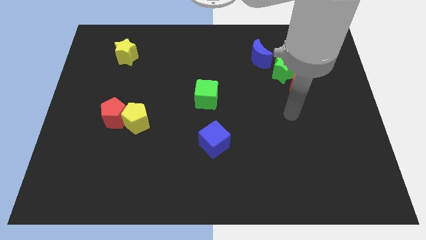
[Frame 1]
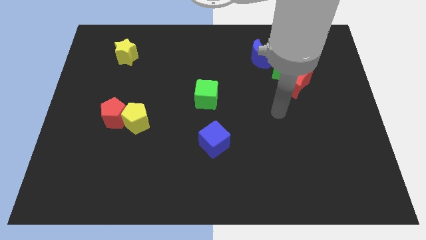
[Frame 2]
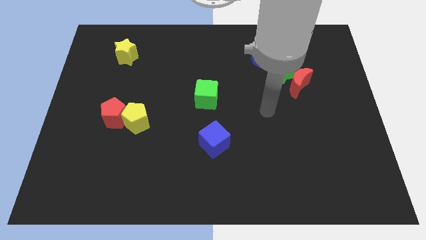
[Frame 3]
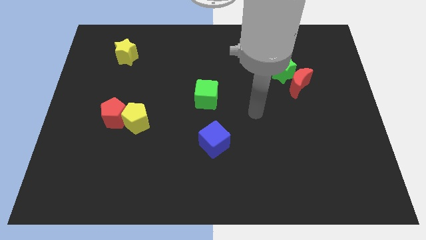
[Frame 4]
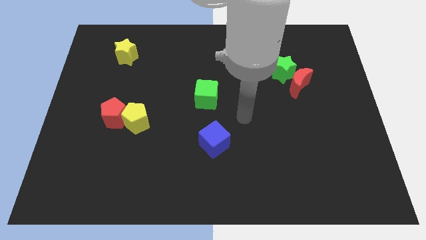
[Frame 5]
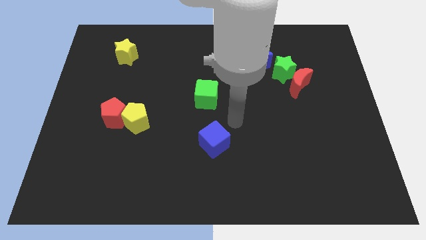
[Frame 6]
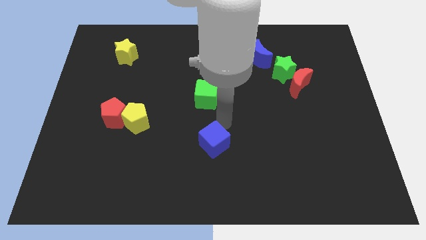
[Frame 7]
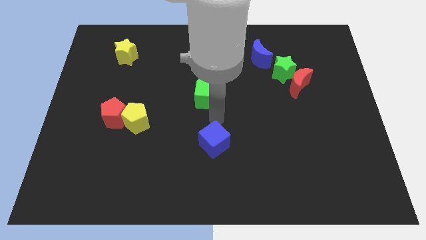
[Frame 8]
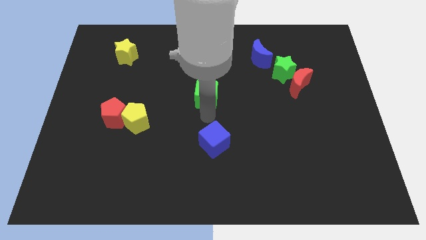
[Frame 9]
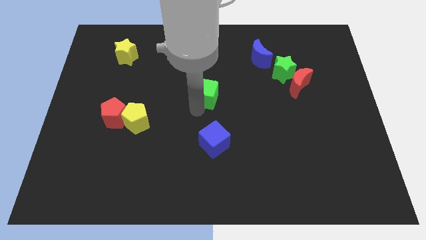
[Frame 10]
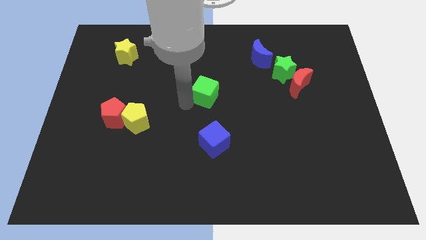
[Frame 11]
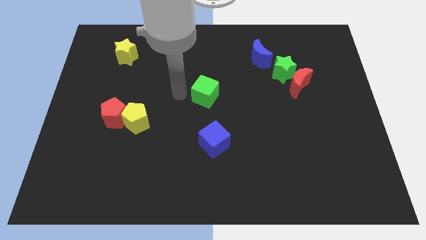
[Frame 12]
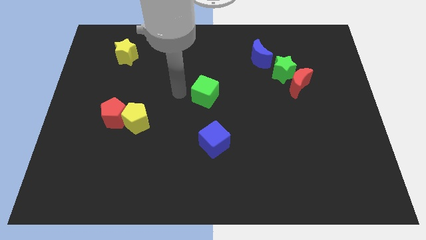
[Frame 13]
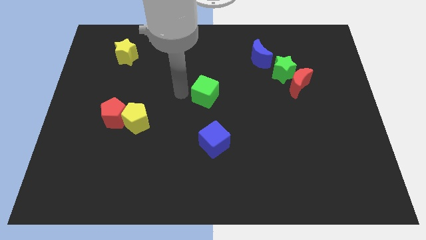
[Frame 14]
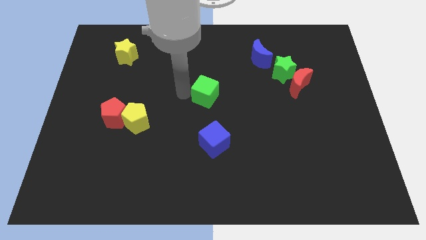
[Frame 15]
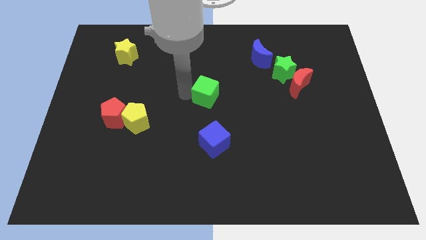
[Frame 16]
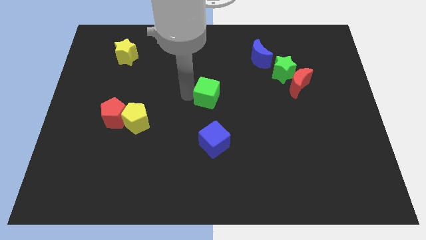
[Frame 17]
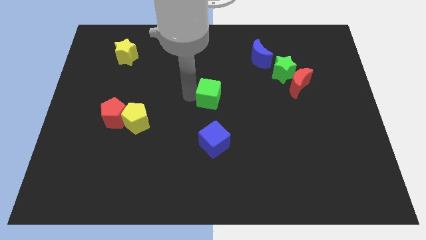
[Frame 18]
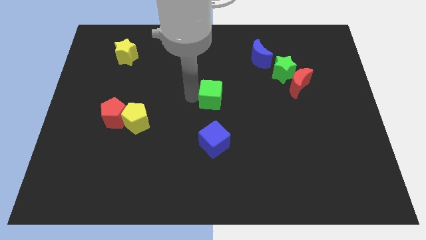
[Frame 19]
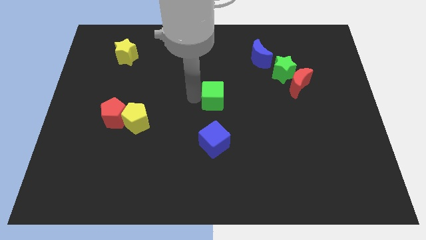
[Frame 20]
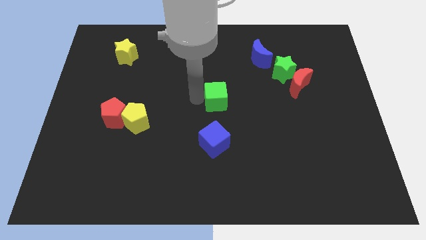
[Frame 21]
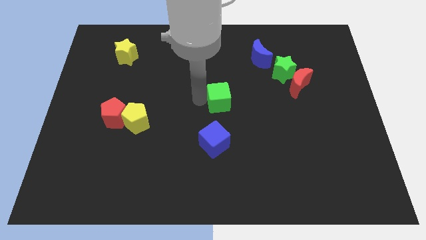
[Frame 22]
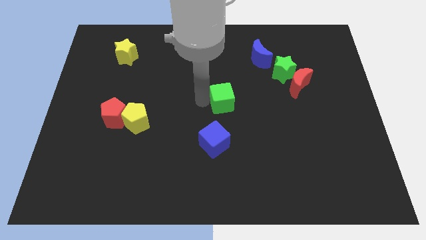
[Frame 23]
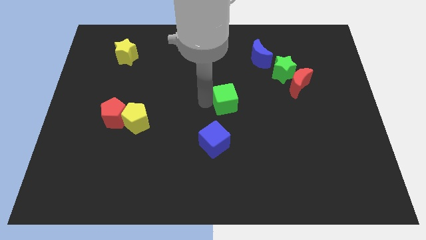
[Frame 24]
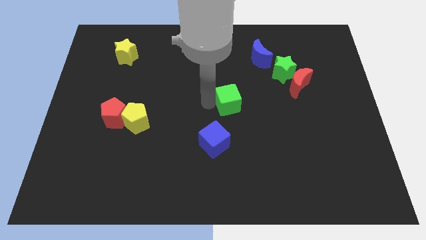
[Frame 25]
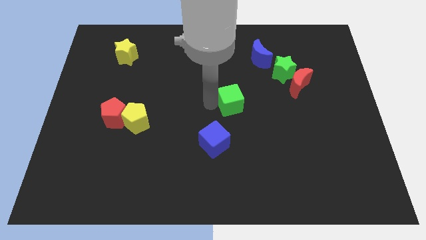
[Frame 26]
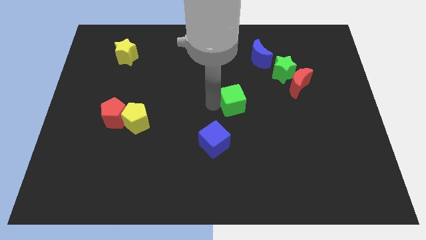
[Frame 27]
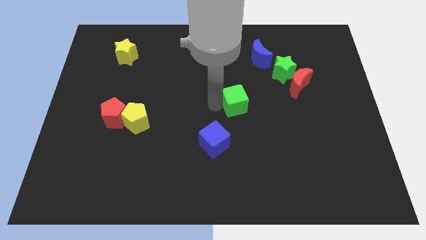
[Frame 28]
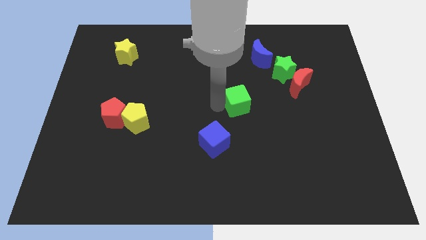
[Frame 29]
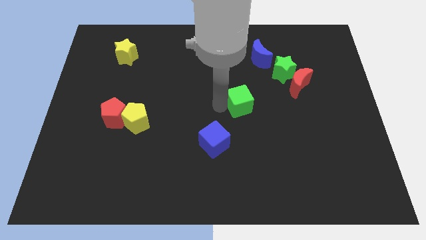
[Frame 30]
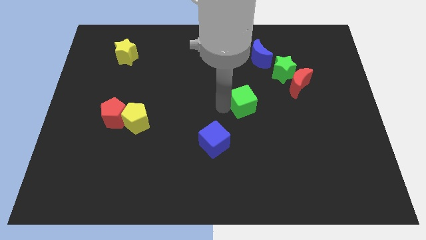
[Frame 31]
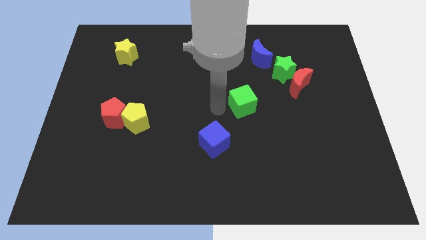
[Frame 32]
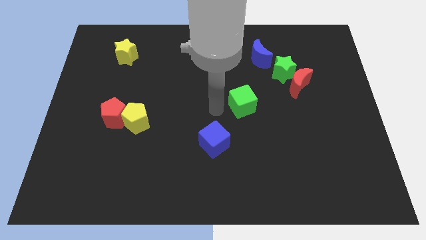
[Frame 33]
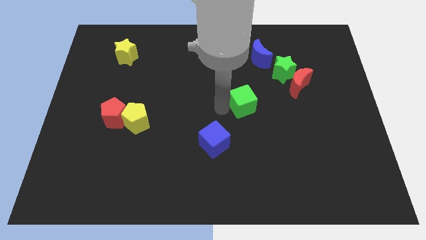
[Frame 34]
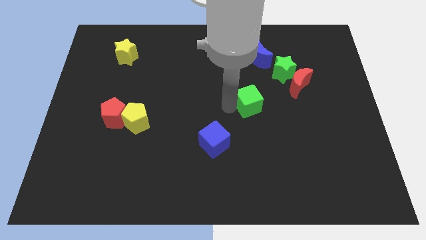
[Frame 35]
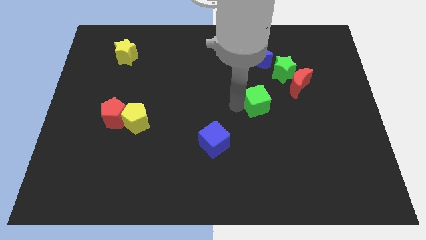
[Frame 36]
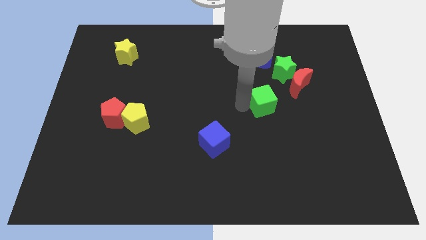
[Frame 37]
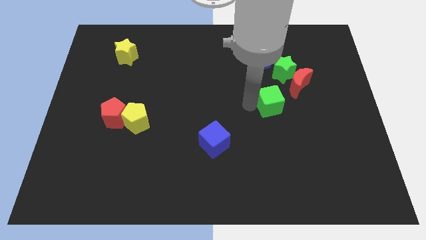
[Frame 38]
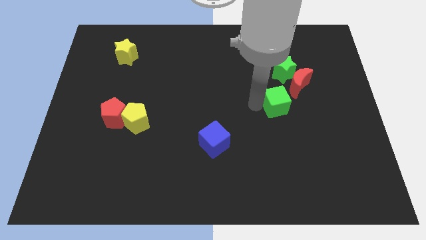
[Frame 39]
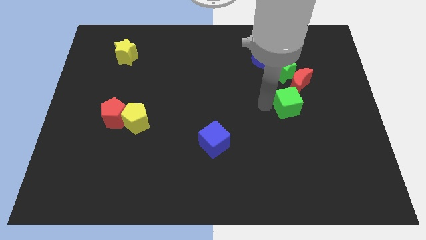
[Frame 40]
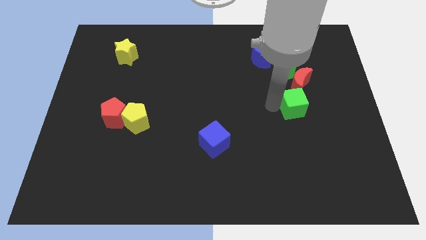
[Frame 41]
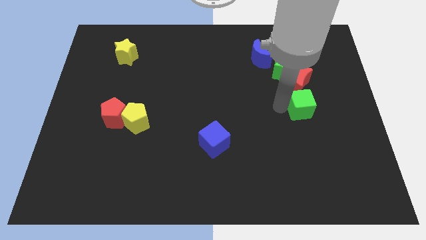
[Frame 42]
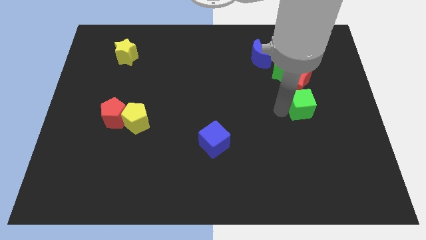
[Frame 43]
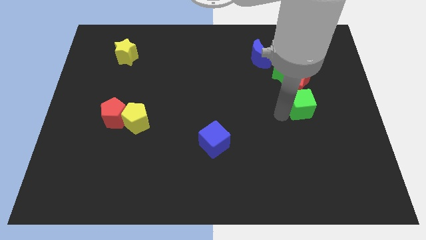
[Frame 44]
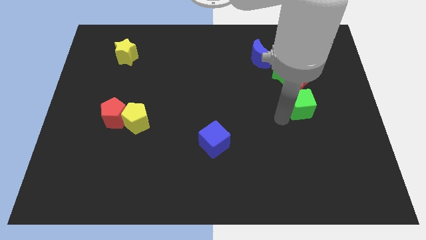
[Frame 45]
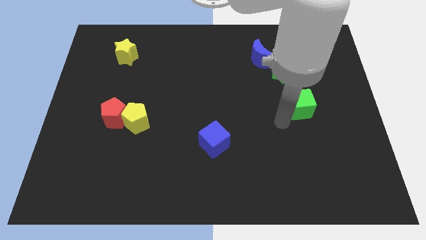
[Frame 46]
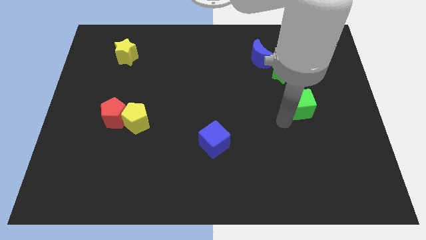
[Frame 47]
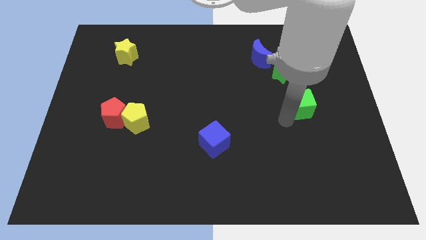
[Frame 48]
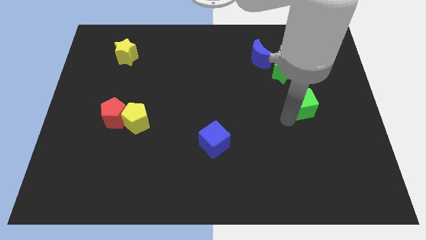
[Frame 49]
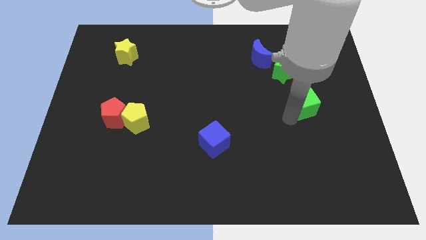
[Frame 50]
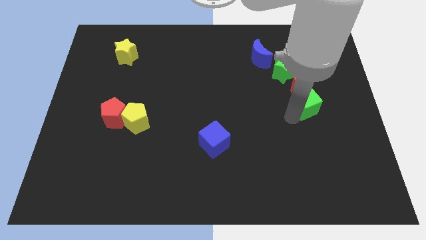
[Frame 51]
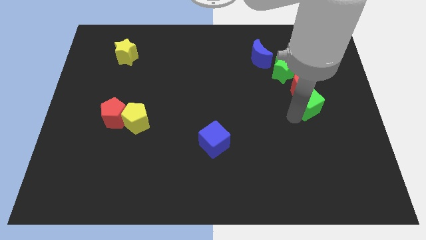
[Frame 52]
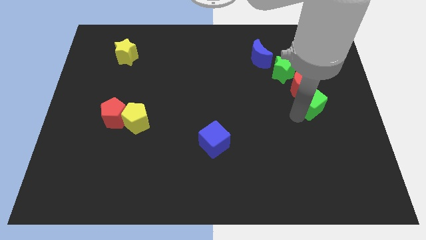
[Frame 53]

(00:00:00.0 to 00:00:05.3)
put the green cube diagonally down and to the right of the green star

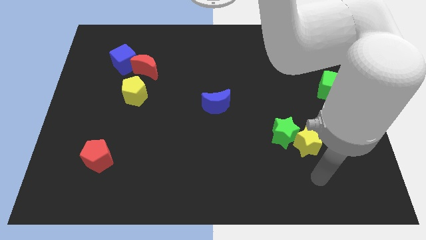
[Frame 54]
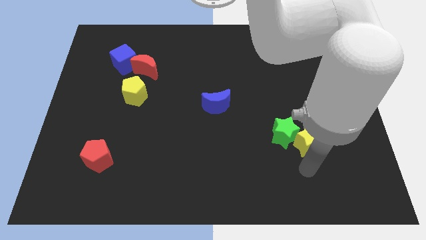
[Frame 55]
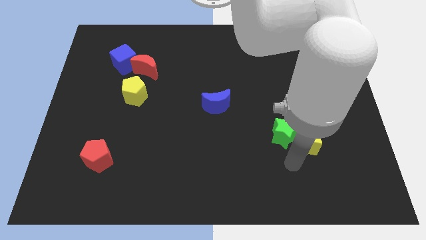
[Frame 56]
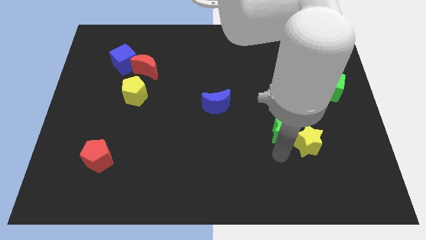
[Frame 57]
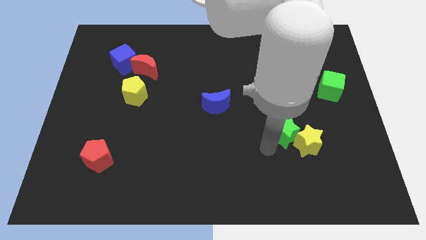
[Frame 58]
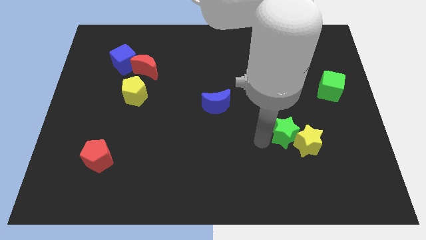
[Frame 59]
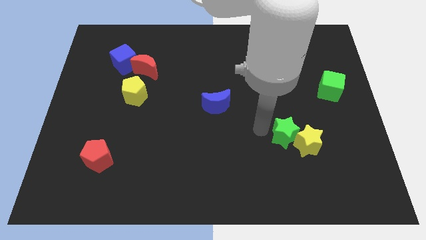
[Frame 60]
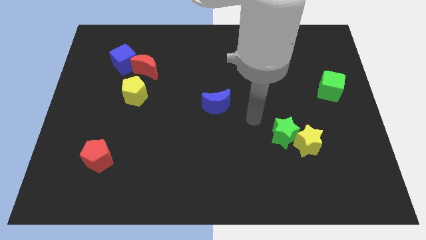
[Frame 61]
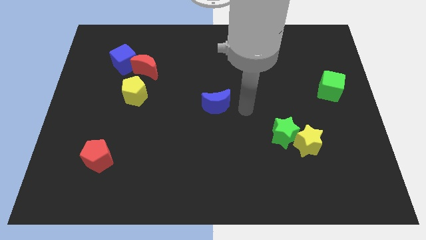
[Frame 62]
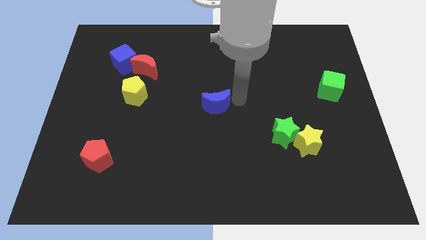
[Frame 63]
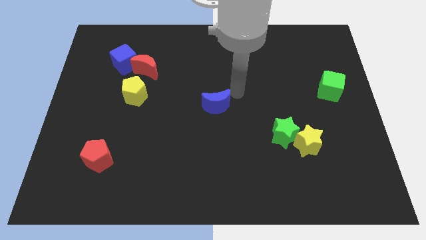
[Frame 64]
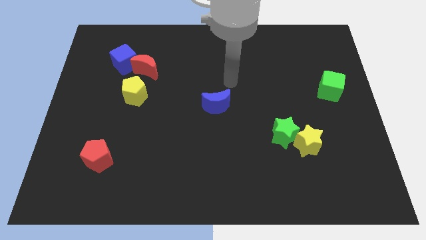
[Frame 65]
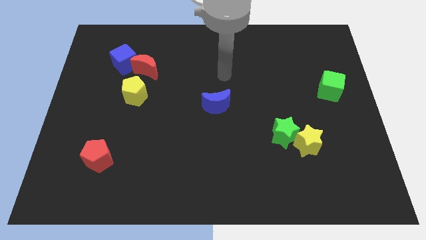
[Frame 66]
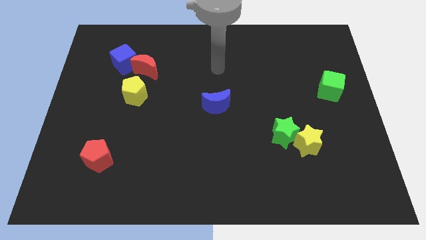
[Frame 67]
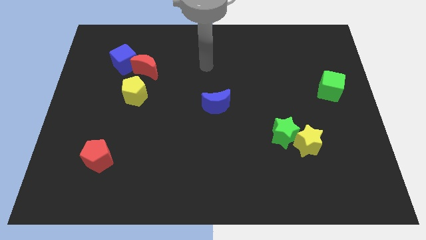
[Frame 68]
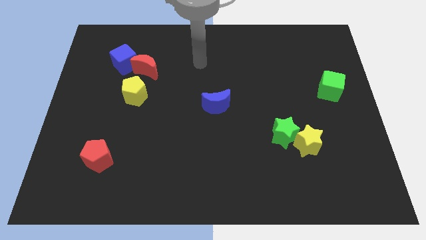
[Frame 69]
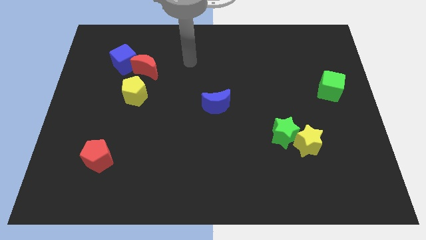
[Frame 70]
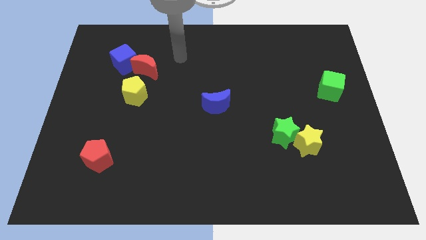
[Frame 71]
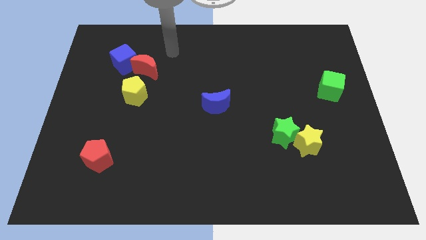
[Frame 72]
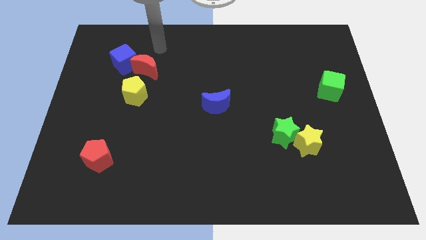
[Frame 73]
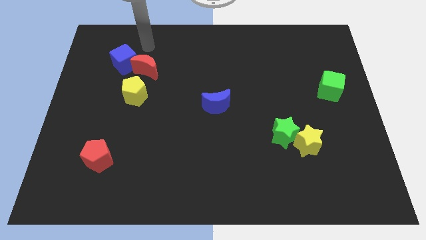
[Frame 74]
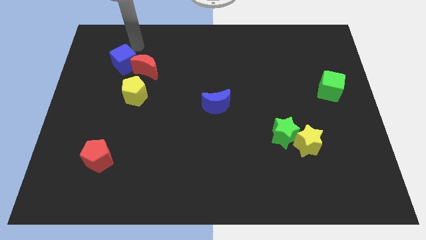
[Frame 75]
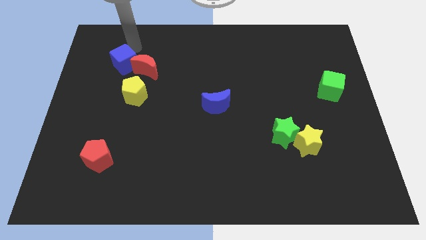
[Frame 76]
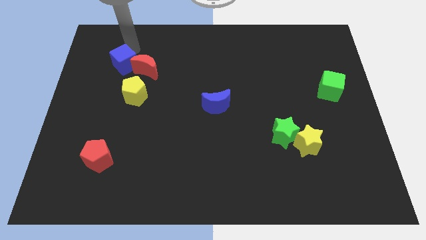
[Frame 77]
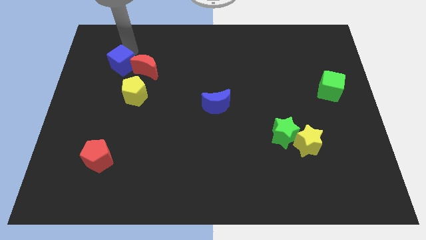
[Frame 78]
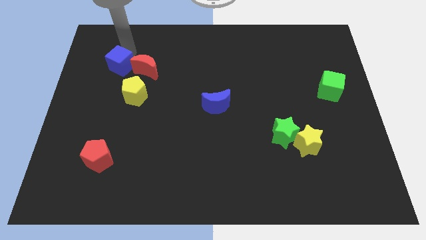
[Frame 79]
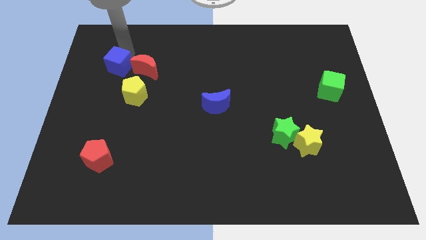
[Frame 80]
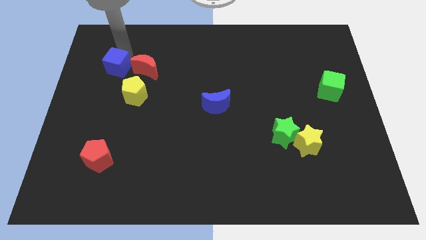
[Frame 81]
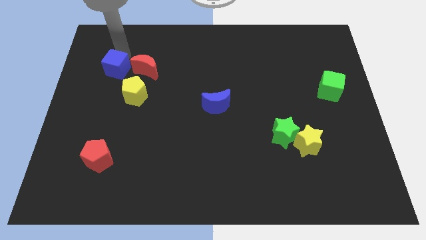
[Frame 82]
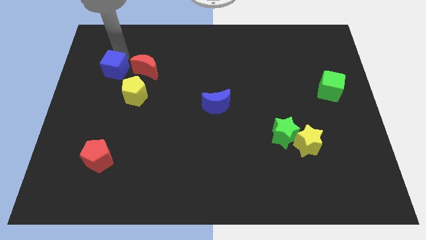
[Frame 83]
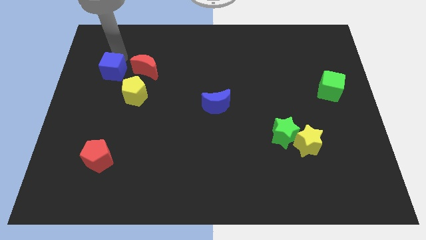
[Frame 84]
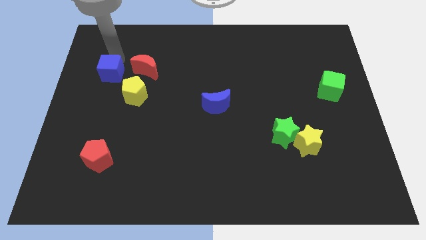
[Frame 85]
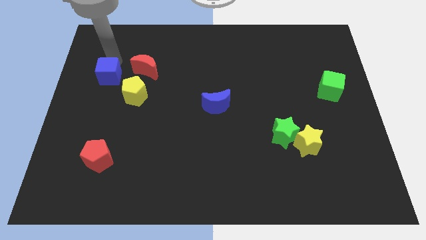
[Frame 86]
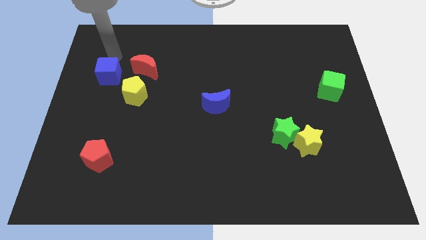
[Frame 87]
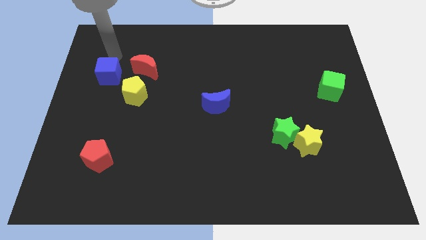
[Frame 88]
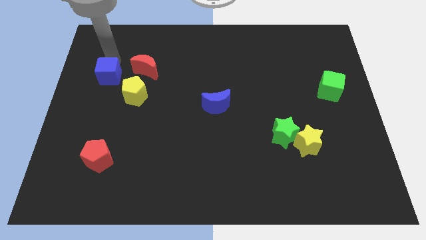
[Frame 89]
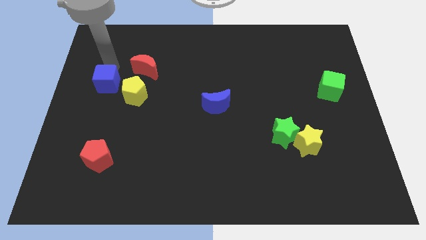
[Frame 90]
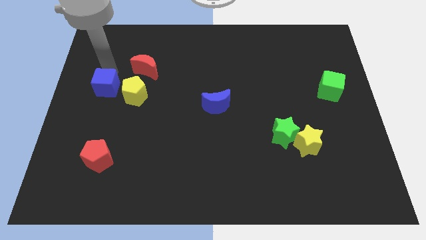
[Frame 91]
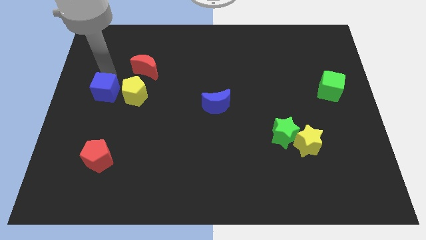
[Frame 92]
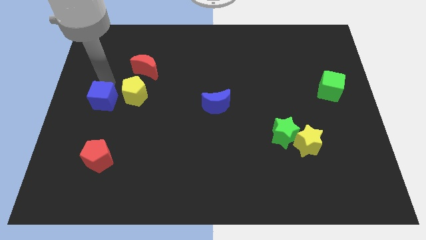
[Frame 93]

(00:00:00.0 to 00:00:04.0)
move the blue cube to the top side of the red pentagon
